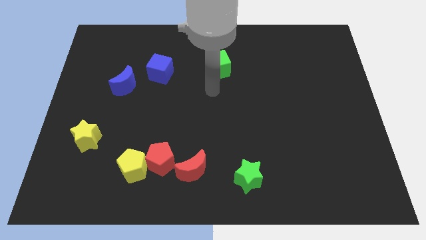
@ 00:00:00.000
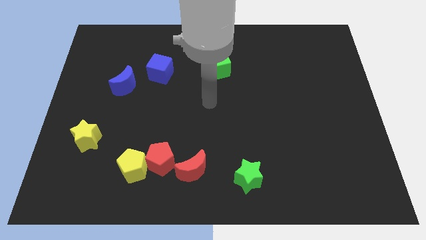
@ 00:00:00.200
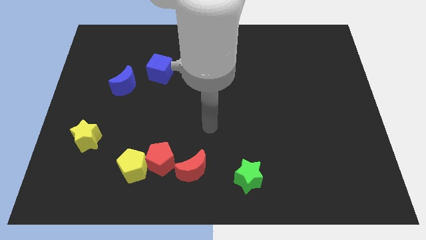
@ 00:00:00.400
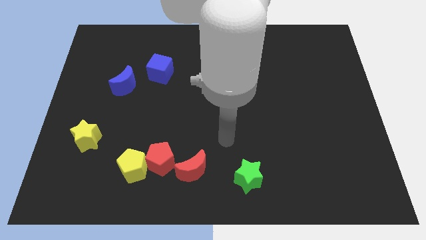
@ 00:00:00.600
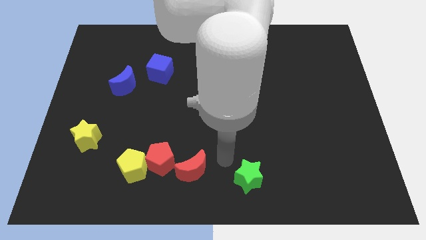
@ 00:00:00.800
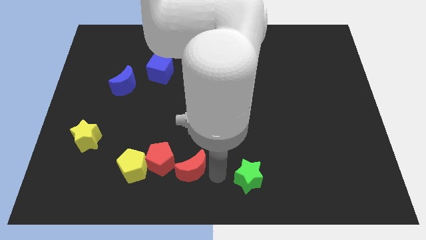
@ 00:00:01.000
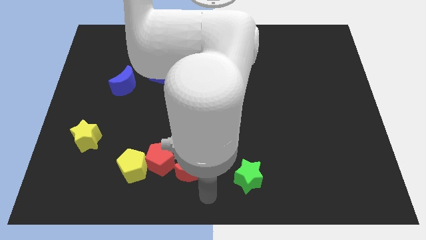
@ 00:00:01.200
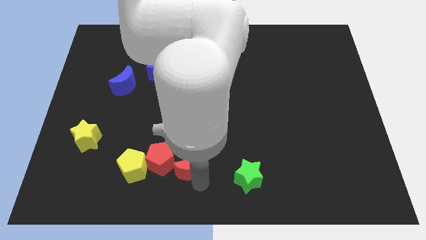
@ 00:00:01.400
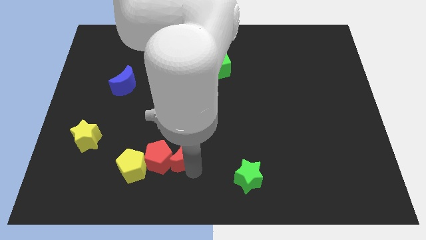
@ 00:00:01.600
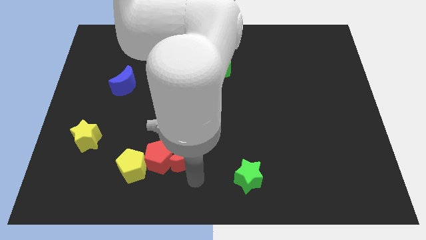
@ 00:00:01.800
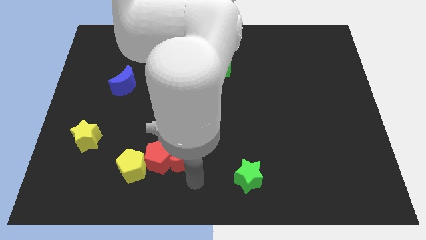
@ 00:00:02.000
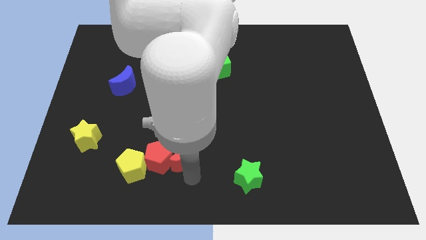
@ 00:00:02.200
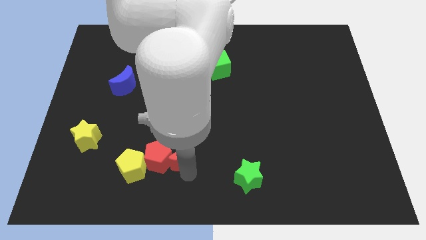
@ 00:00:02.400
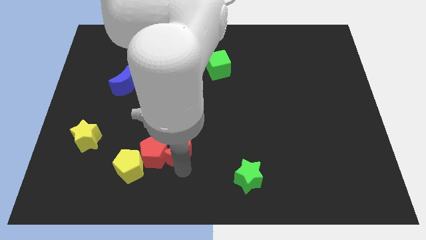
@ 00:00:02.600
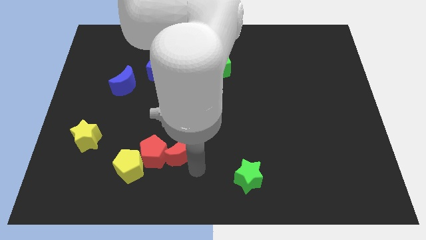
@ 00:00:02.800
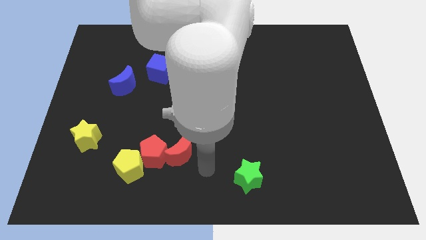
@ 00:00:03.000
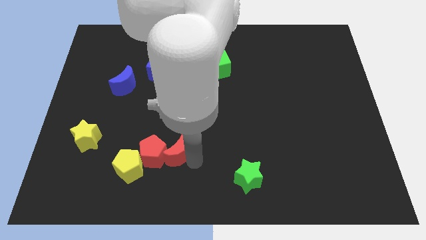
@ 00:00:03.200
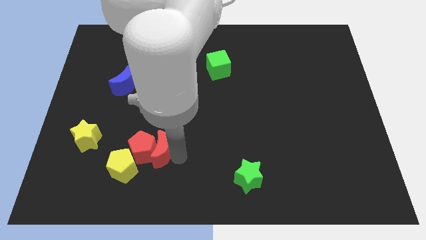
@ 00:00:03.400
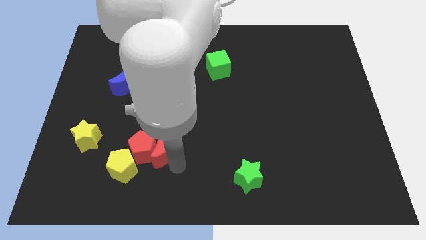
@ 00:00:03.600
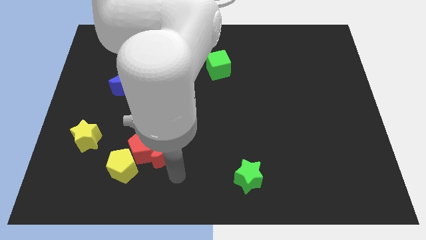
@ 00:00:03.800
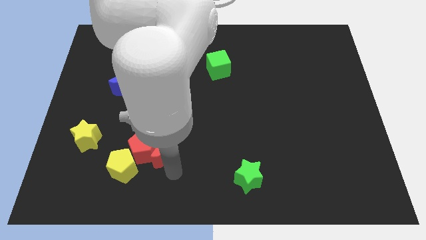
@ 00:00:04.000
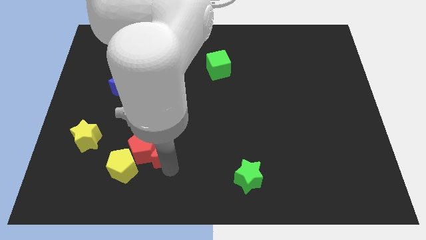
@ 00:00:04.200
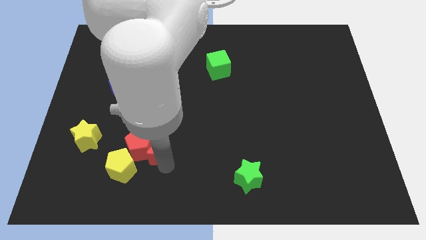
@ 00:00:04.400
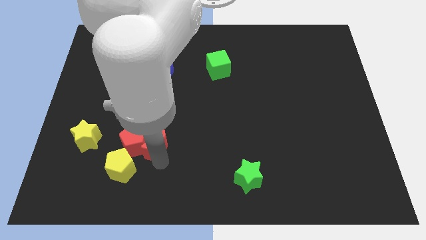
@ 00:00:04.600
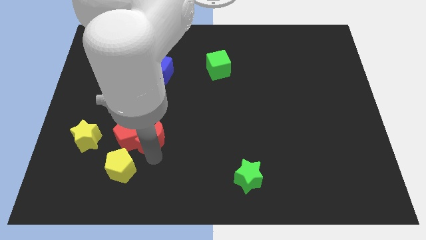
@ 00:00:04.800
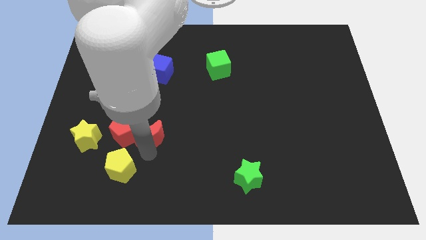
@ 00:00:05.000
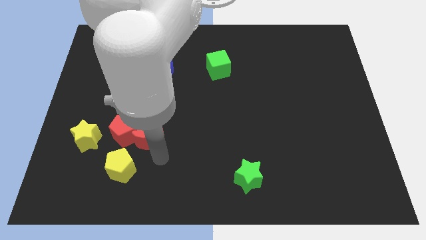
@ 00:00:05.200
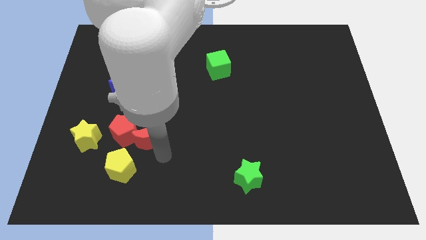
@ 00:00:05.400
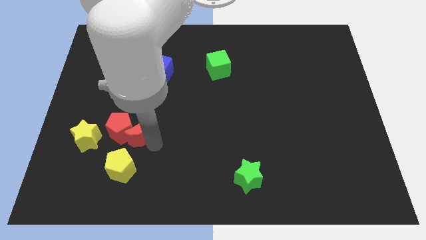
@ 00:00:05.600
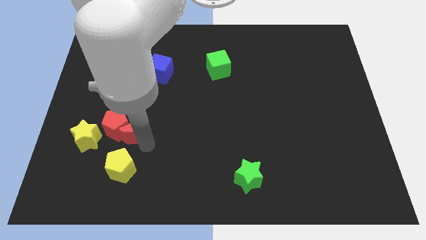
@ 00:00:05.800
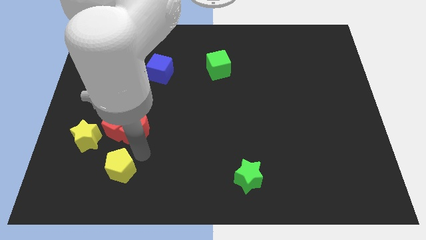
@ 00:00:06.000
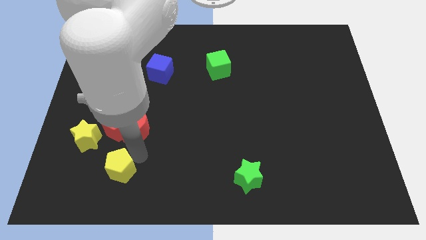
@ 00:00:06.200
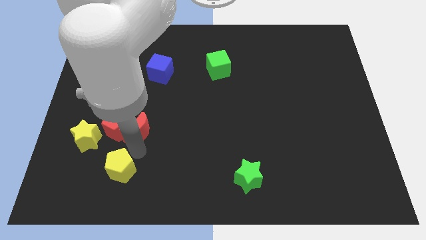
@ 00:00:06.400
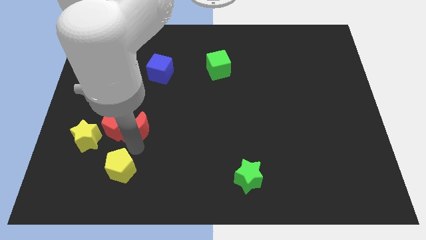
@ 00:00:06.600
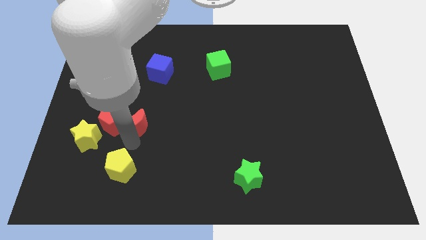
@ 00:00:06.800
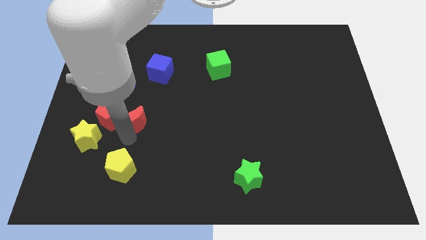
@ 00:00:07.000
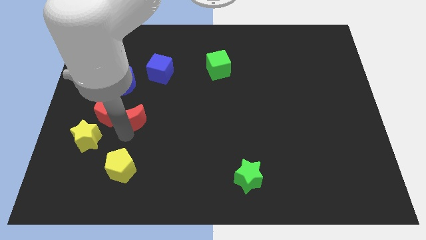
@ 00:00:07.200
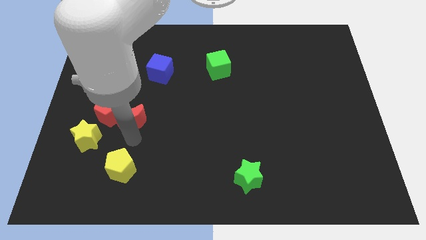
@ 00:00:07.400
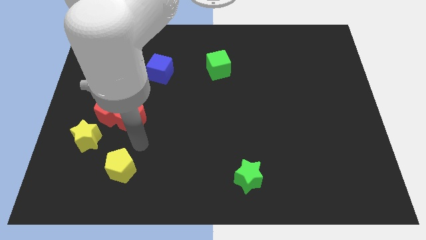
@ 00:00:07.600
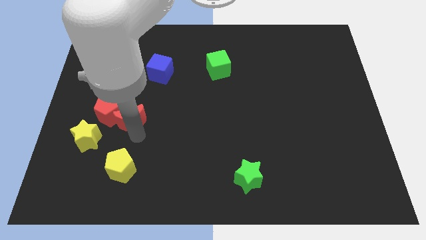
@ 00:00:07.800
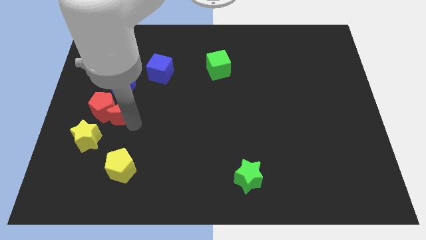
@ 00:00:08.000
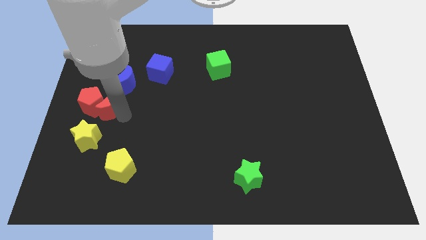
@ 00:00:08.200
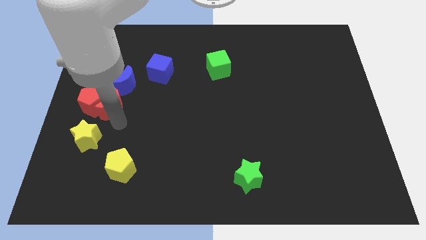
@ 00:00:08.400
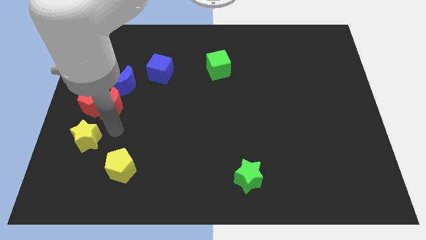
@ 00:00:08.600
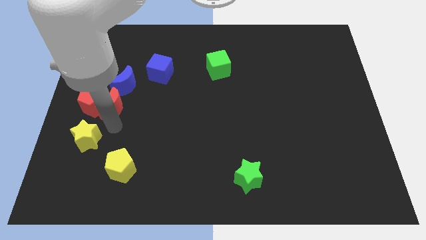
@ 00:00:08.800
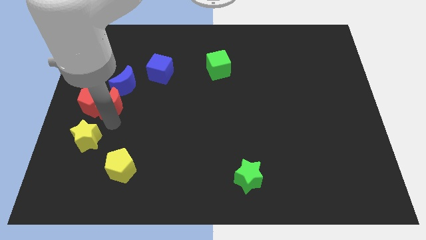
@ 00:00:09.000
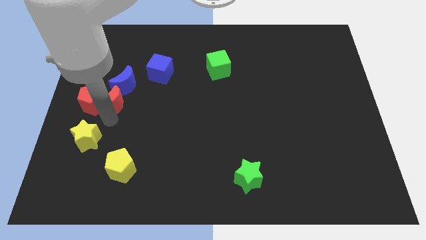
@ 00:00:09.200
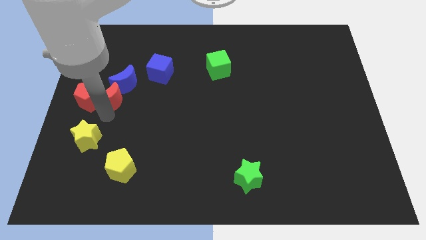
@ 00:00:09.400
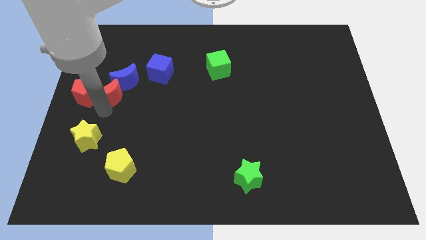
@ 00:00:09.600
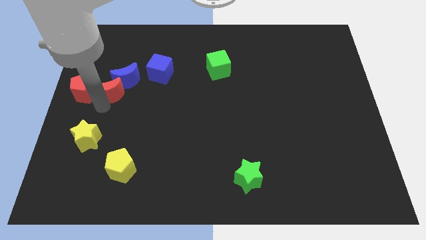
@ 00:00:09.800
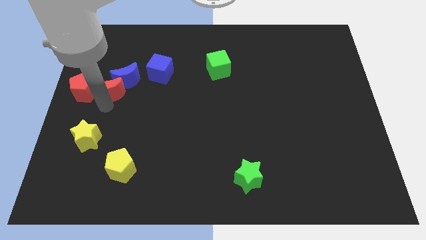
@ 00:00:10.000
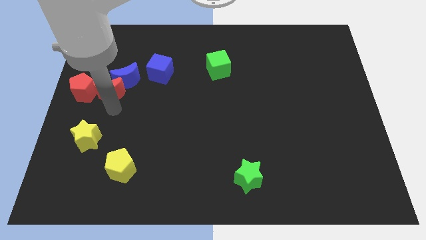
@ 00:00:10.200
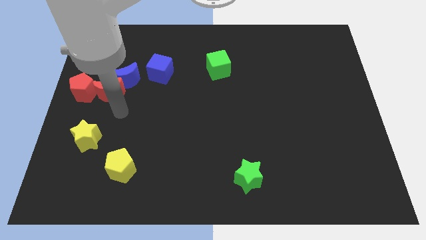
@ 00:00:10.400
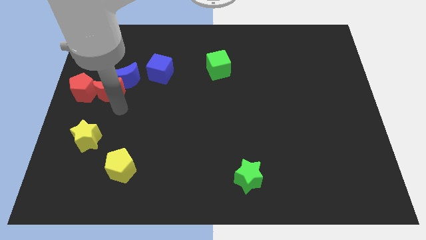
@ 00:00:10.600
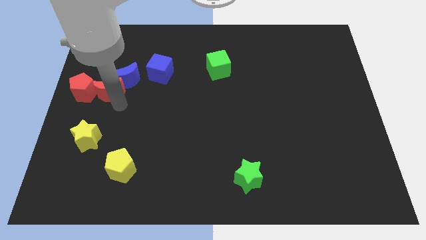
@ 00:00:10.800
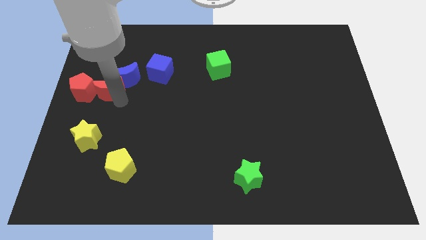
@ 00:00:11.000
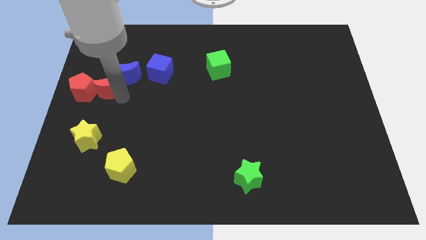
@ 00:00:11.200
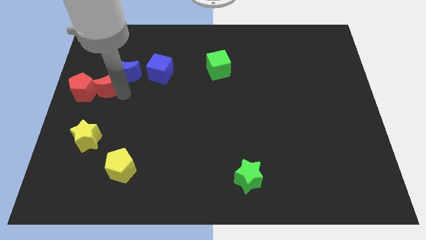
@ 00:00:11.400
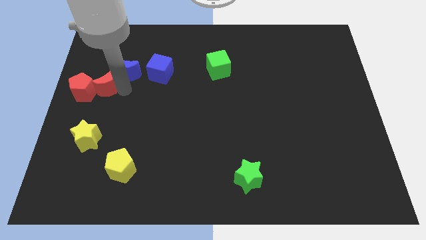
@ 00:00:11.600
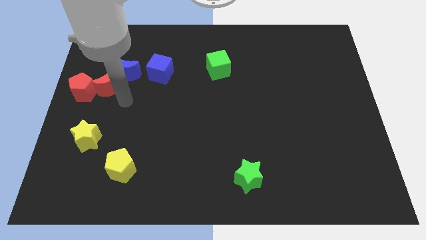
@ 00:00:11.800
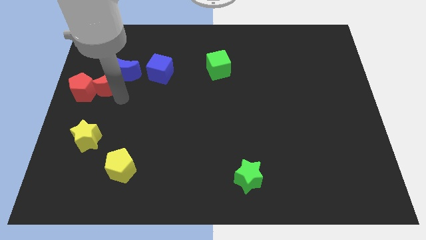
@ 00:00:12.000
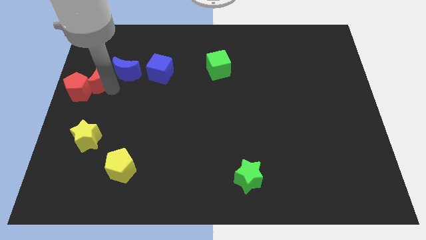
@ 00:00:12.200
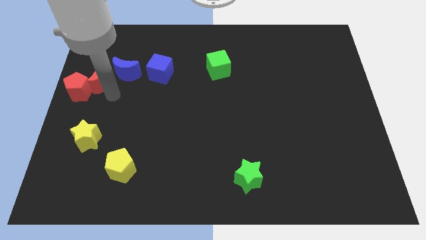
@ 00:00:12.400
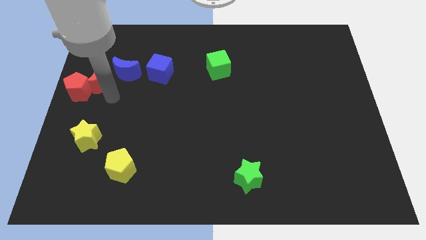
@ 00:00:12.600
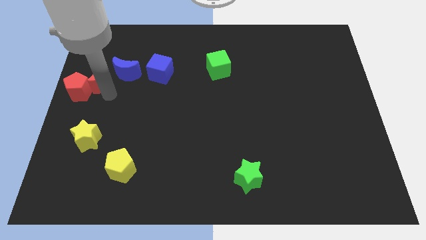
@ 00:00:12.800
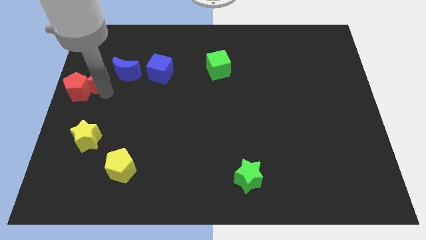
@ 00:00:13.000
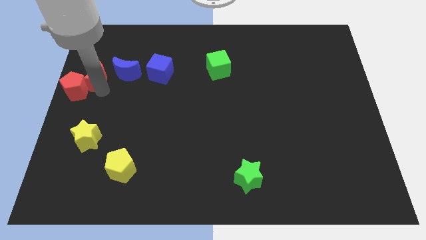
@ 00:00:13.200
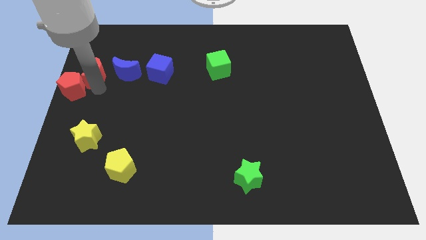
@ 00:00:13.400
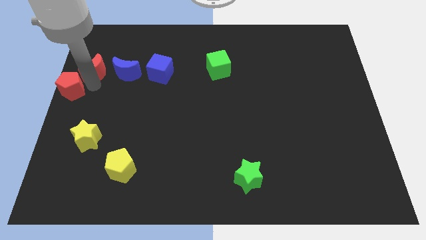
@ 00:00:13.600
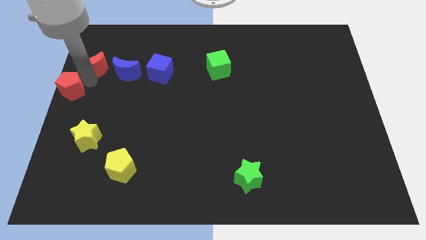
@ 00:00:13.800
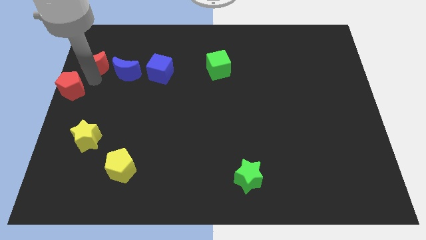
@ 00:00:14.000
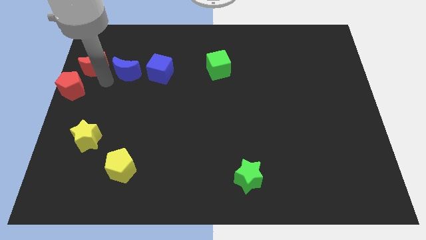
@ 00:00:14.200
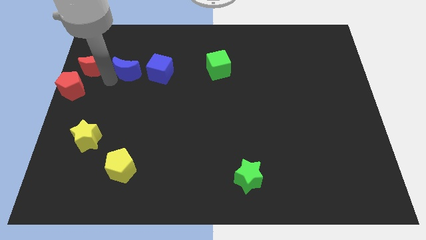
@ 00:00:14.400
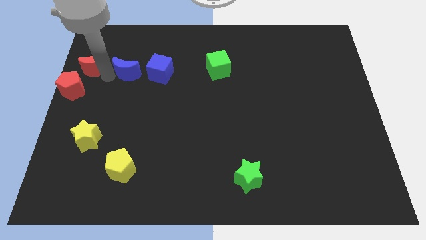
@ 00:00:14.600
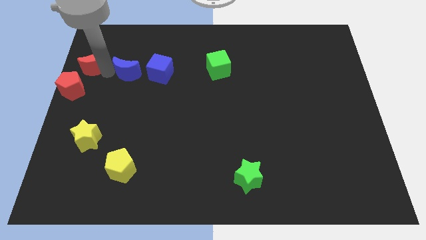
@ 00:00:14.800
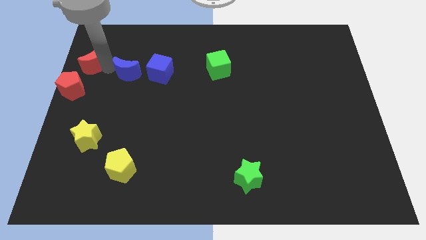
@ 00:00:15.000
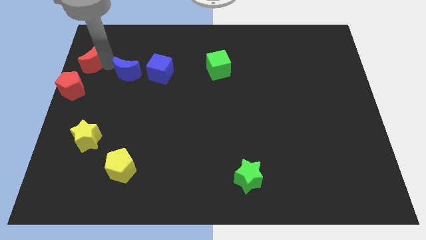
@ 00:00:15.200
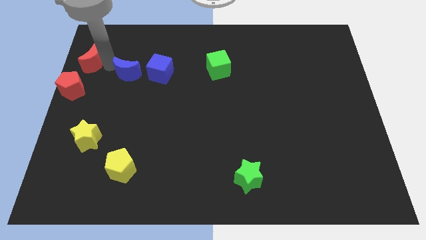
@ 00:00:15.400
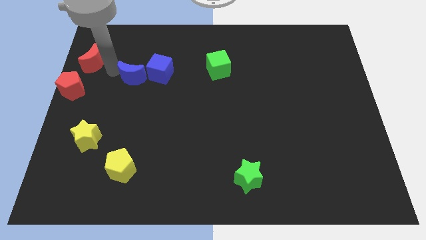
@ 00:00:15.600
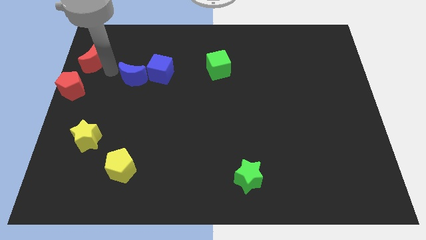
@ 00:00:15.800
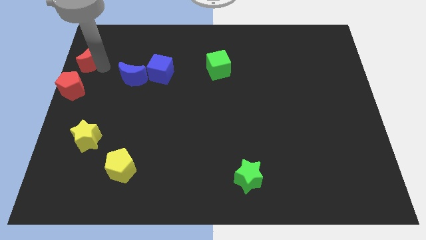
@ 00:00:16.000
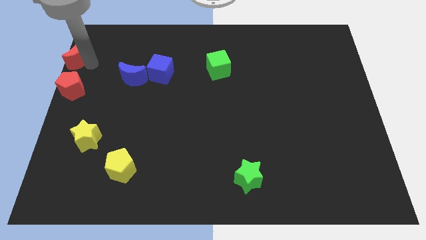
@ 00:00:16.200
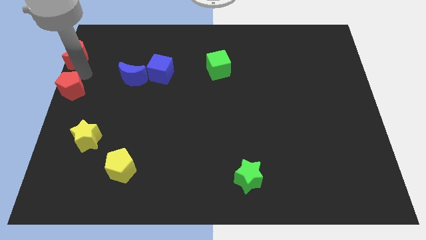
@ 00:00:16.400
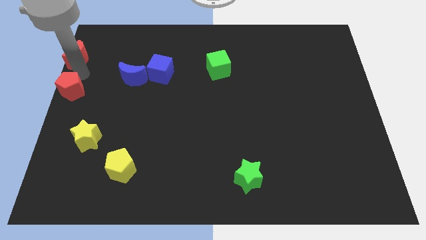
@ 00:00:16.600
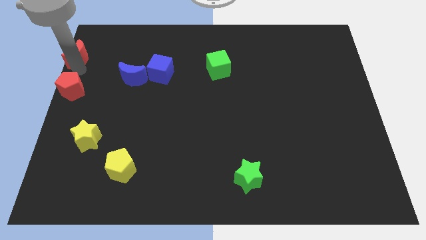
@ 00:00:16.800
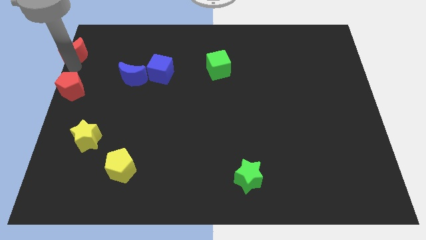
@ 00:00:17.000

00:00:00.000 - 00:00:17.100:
push the red moon to the upper left corner
